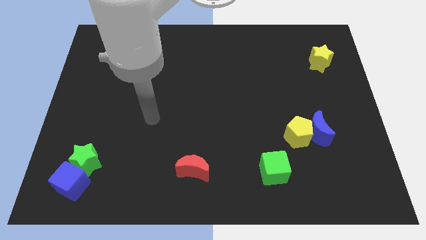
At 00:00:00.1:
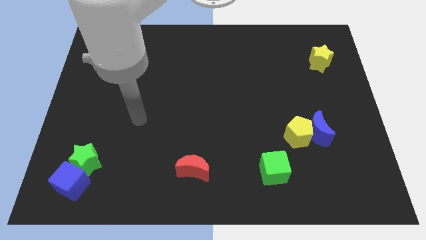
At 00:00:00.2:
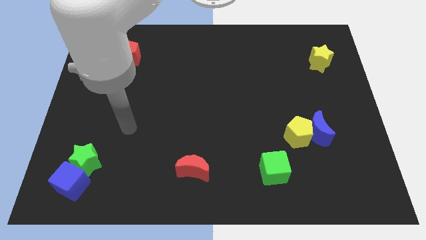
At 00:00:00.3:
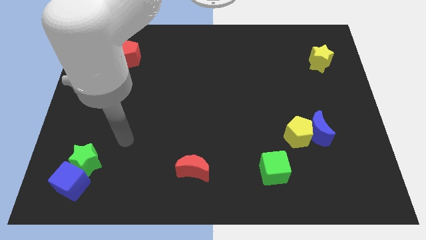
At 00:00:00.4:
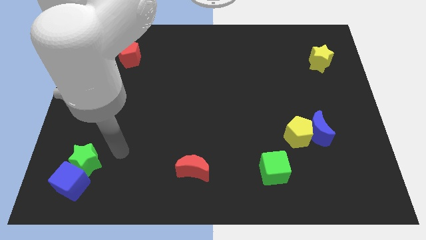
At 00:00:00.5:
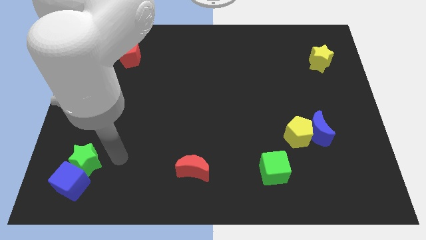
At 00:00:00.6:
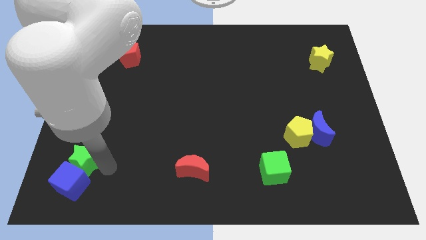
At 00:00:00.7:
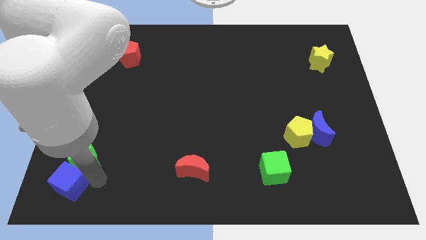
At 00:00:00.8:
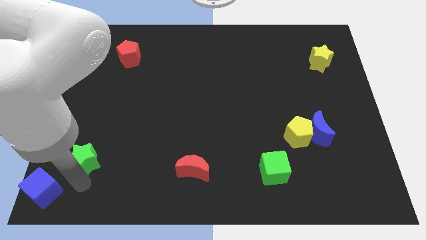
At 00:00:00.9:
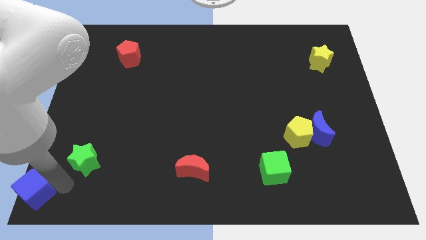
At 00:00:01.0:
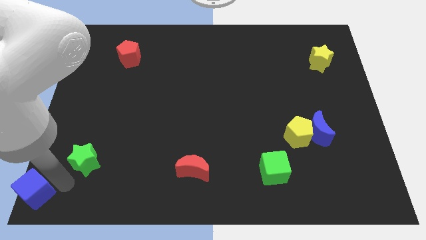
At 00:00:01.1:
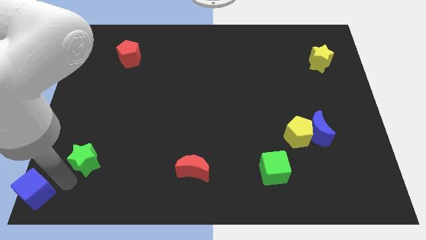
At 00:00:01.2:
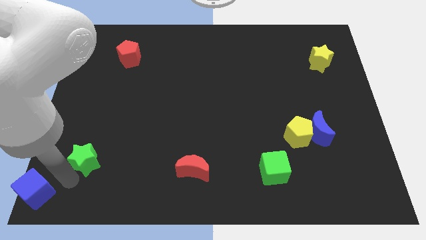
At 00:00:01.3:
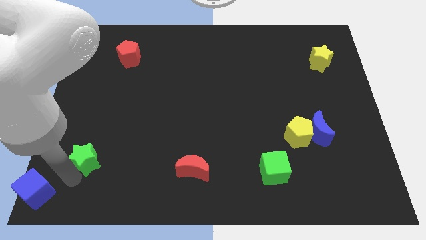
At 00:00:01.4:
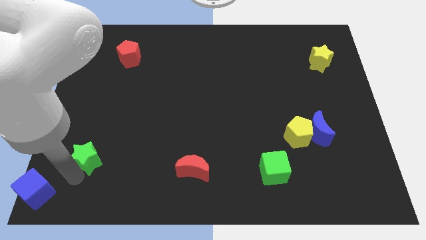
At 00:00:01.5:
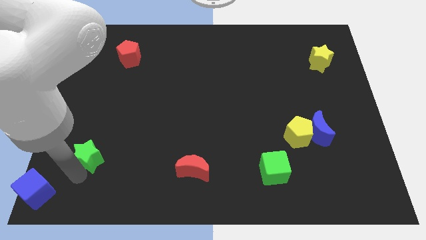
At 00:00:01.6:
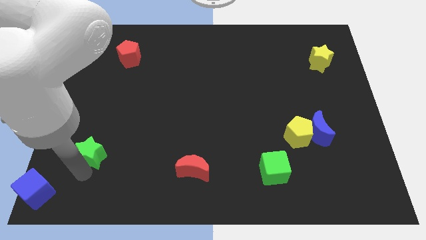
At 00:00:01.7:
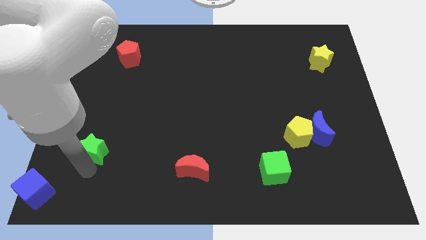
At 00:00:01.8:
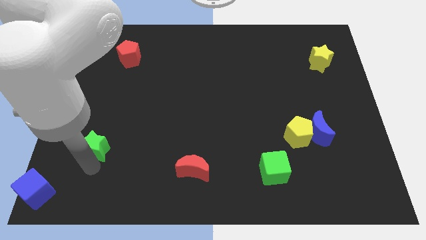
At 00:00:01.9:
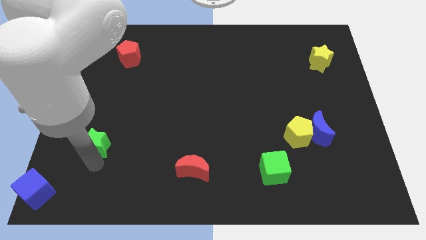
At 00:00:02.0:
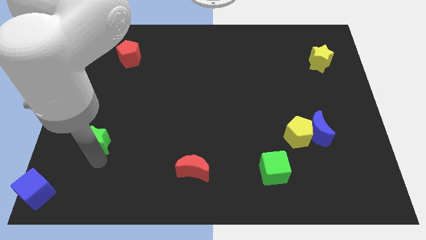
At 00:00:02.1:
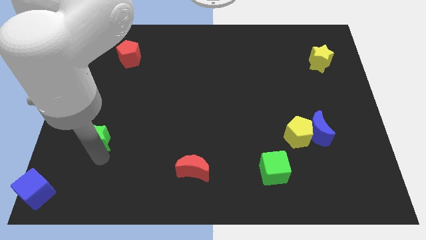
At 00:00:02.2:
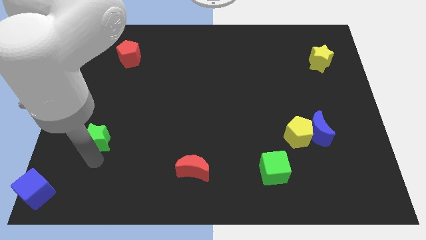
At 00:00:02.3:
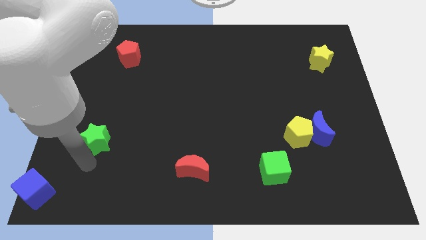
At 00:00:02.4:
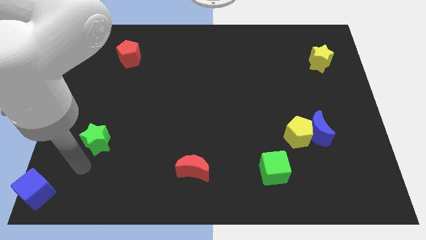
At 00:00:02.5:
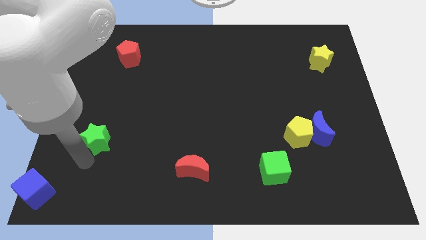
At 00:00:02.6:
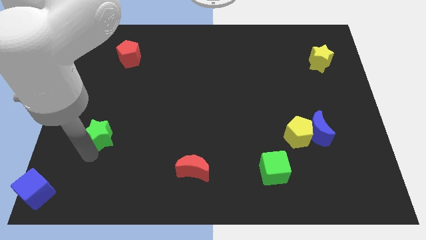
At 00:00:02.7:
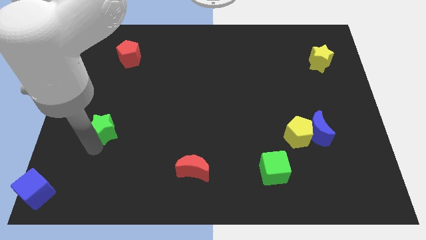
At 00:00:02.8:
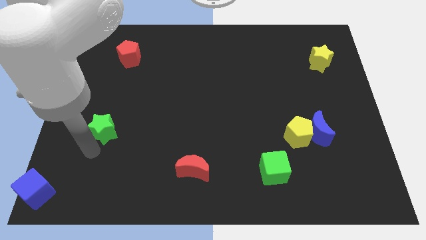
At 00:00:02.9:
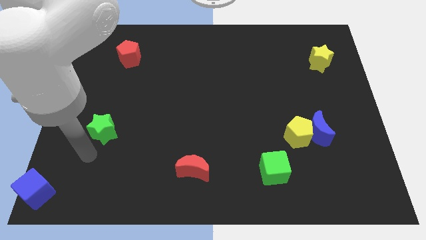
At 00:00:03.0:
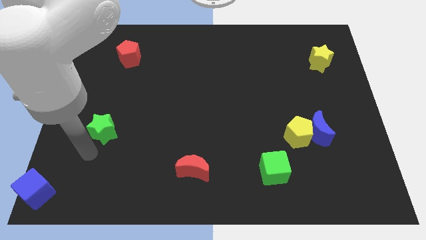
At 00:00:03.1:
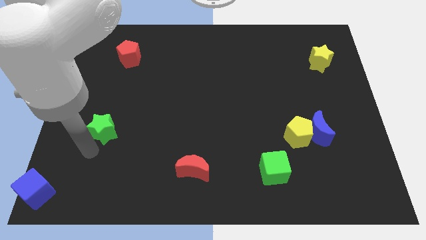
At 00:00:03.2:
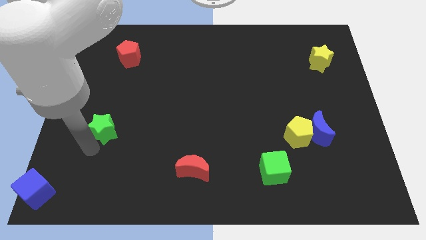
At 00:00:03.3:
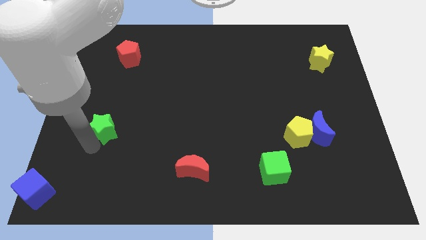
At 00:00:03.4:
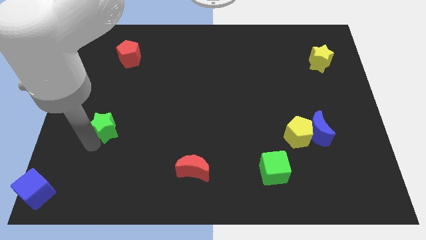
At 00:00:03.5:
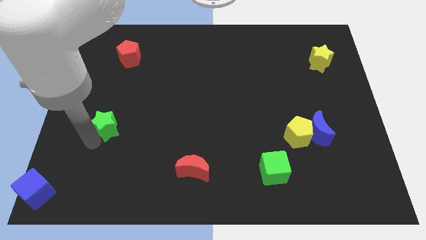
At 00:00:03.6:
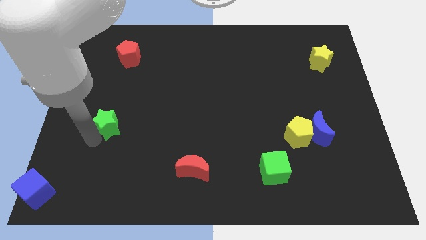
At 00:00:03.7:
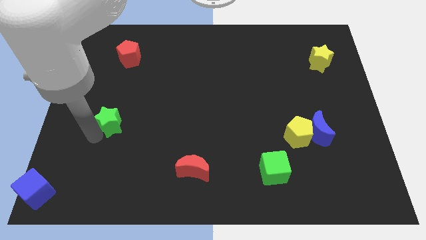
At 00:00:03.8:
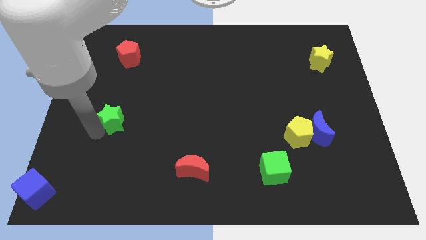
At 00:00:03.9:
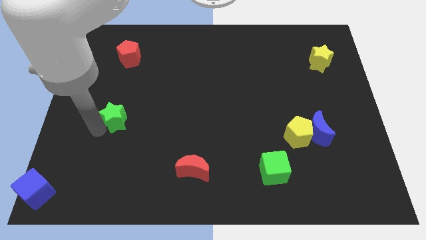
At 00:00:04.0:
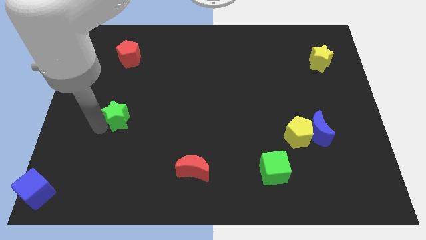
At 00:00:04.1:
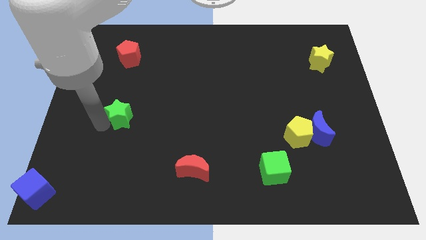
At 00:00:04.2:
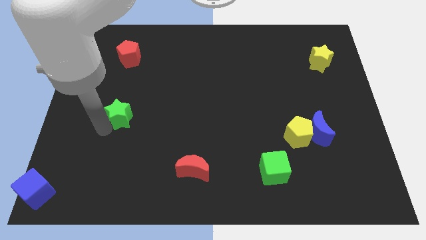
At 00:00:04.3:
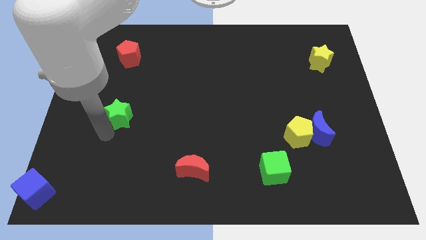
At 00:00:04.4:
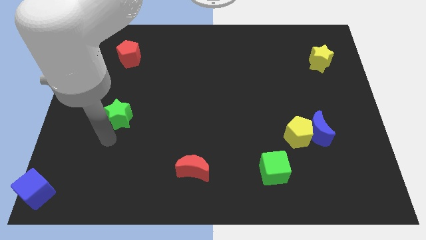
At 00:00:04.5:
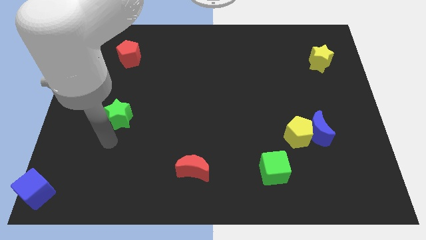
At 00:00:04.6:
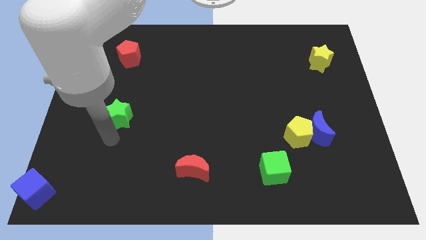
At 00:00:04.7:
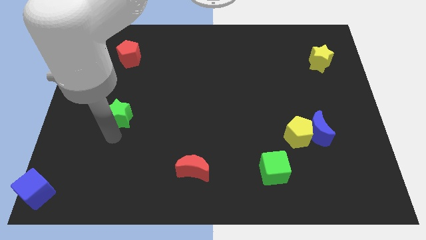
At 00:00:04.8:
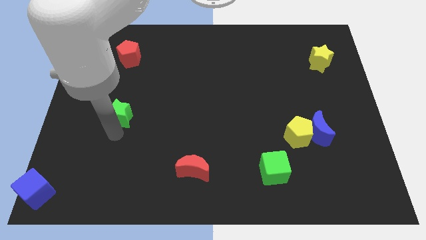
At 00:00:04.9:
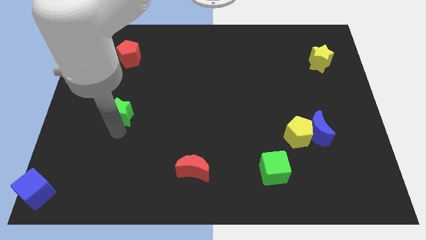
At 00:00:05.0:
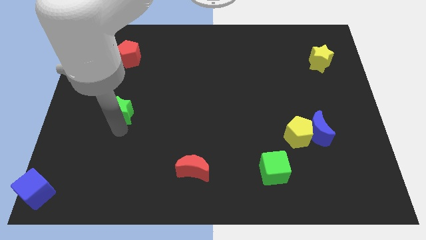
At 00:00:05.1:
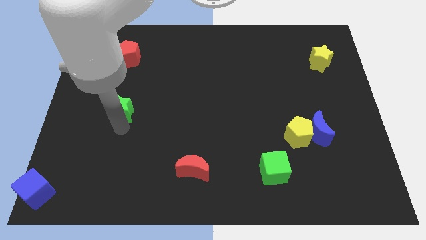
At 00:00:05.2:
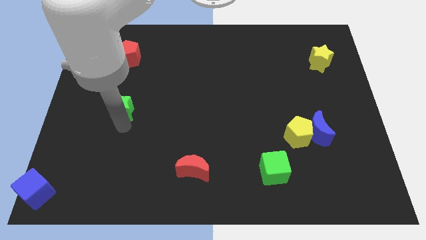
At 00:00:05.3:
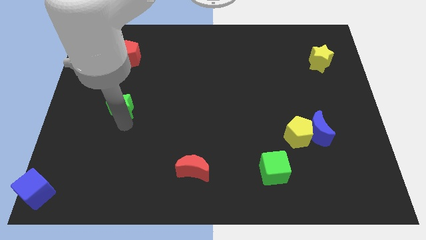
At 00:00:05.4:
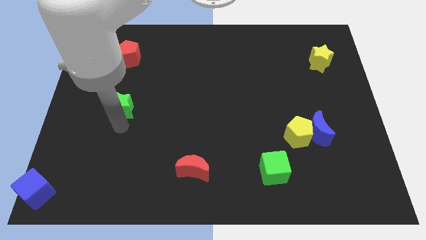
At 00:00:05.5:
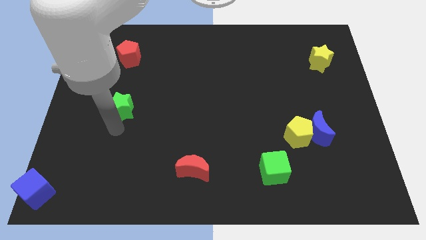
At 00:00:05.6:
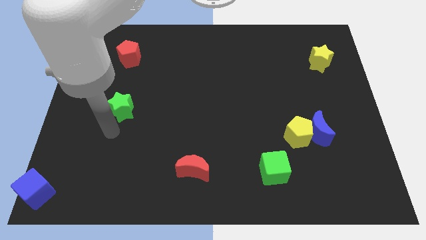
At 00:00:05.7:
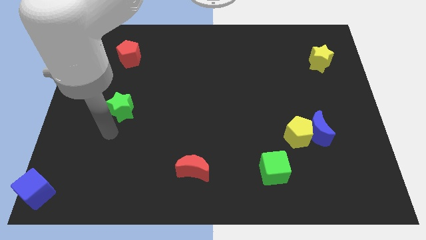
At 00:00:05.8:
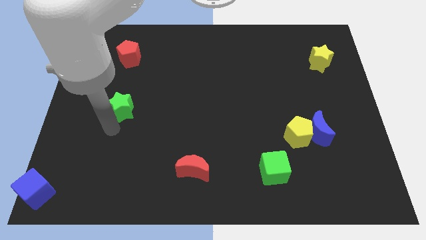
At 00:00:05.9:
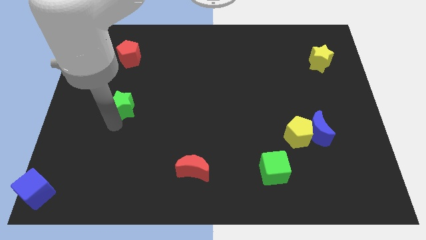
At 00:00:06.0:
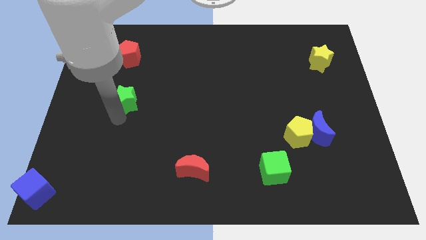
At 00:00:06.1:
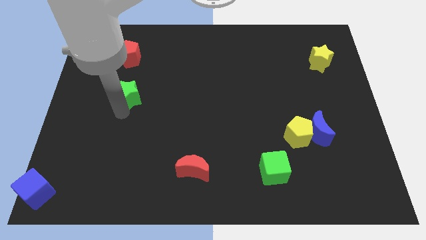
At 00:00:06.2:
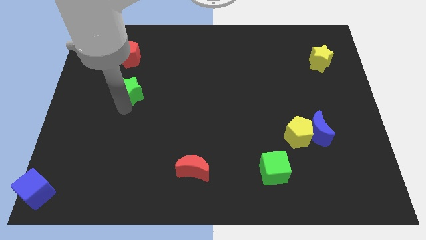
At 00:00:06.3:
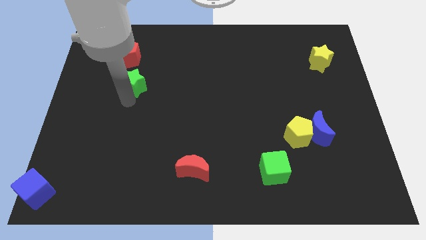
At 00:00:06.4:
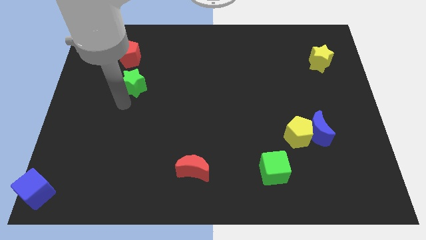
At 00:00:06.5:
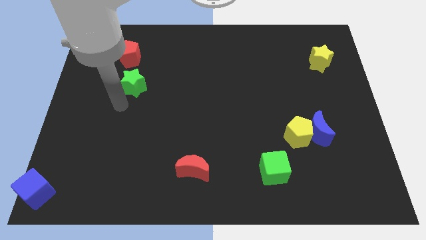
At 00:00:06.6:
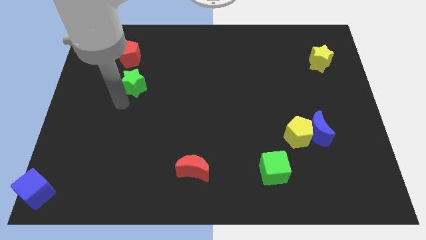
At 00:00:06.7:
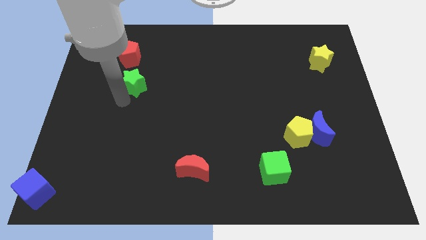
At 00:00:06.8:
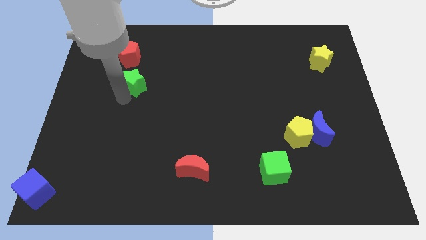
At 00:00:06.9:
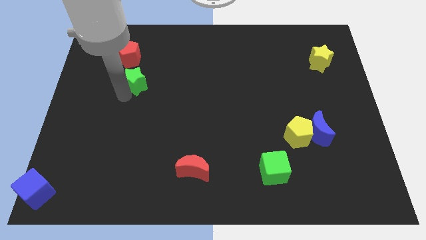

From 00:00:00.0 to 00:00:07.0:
slide the green star to the bottom right of the red pentagon
